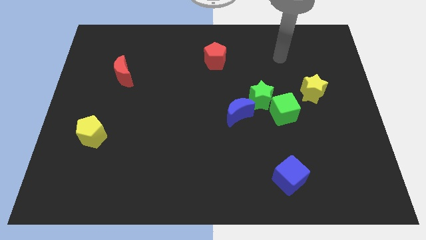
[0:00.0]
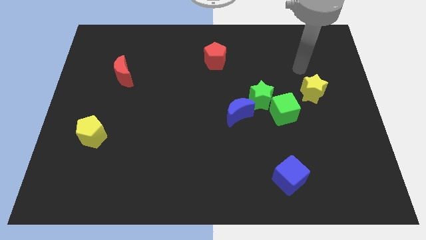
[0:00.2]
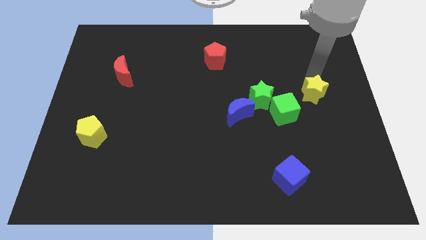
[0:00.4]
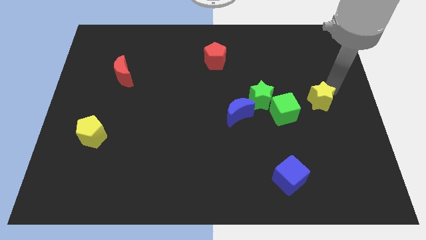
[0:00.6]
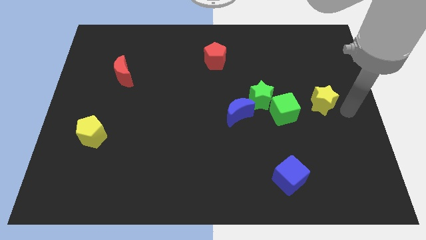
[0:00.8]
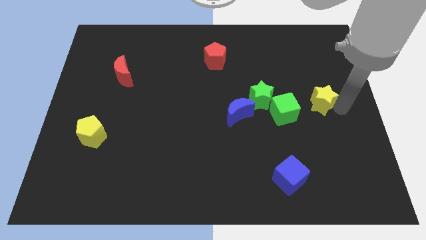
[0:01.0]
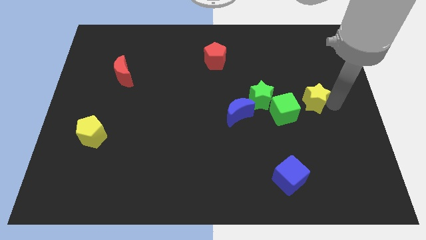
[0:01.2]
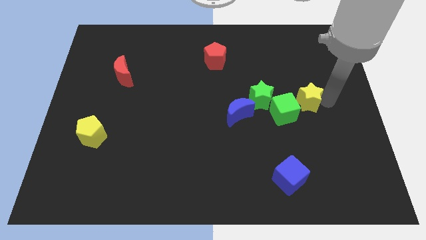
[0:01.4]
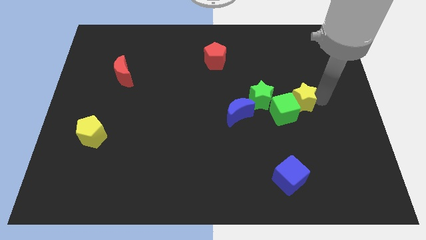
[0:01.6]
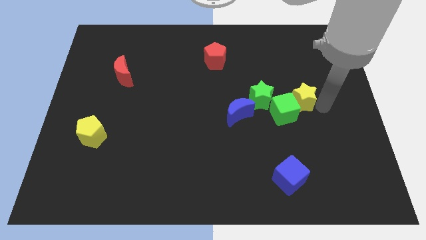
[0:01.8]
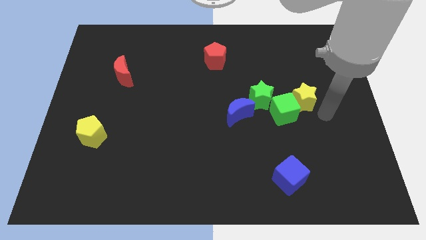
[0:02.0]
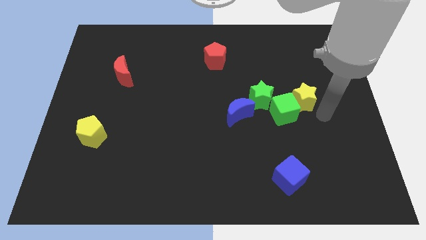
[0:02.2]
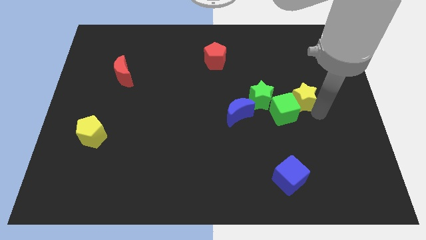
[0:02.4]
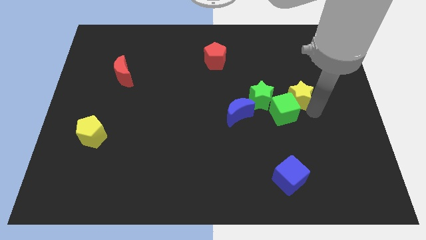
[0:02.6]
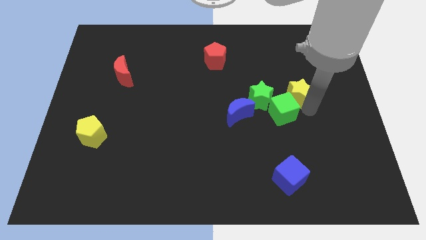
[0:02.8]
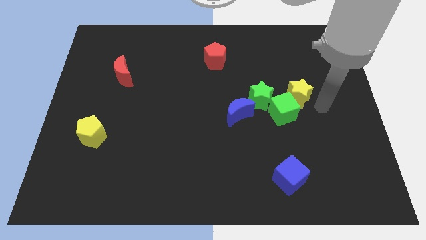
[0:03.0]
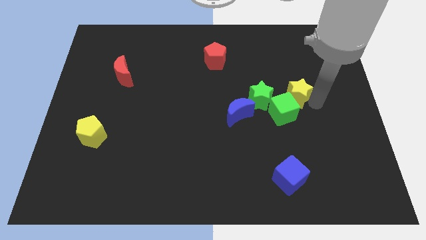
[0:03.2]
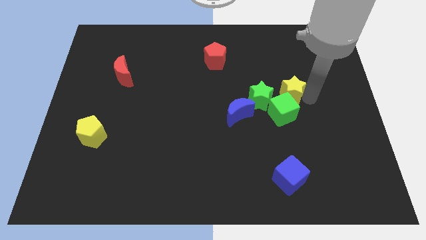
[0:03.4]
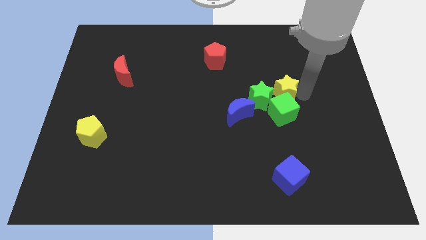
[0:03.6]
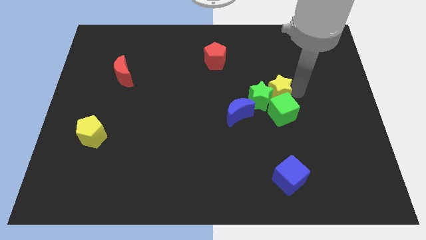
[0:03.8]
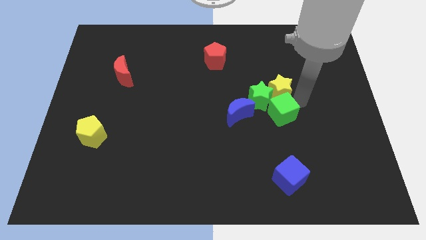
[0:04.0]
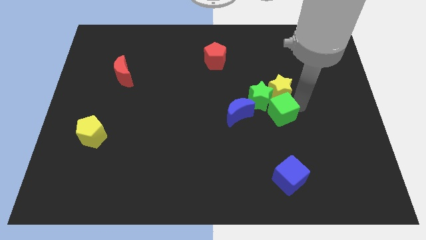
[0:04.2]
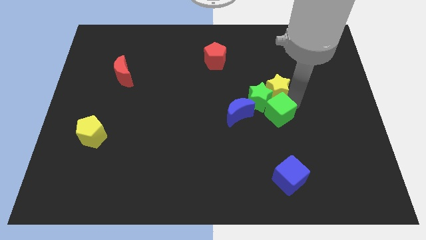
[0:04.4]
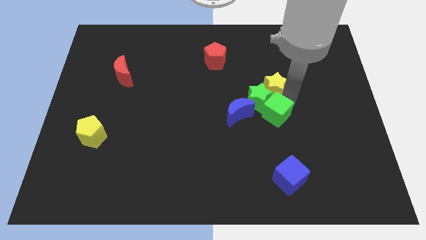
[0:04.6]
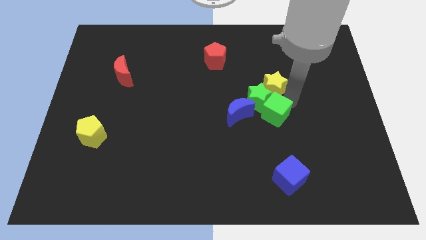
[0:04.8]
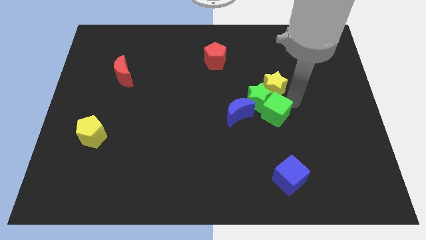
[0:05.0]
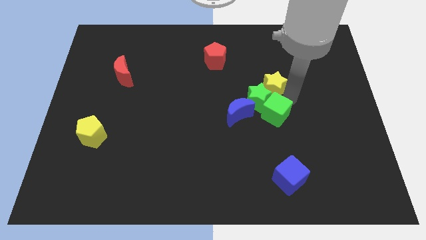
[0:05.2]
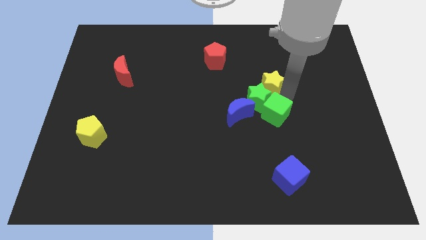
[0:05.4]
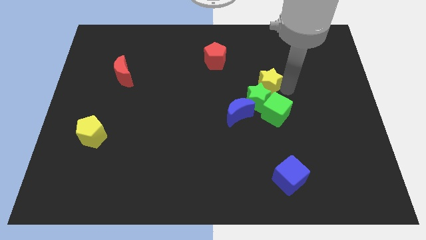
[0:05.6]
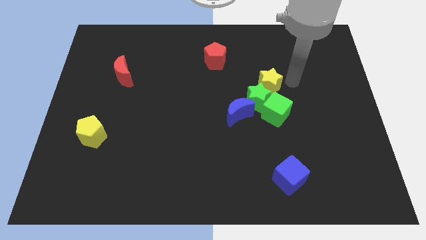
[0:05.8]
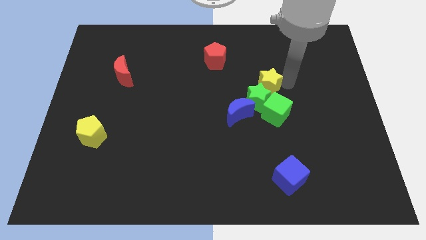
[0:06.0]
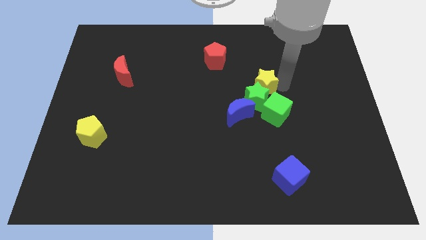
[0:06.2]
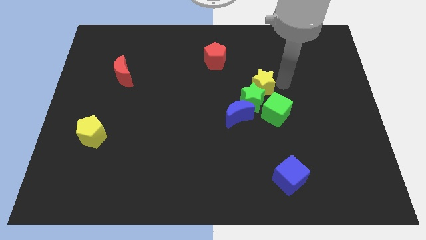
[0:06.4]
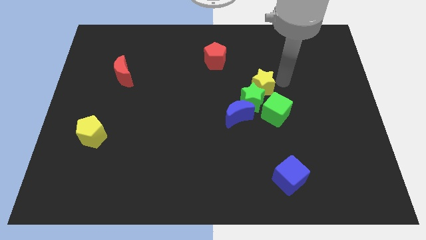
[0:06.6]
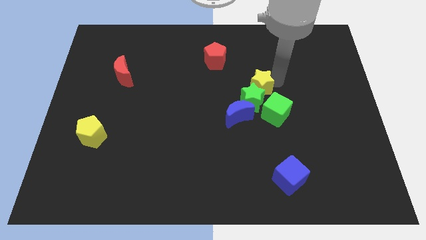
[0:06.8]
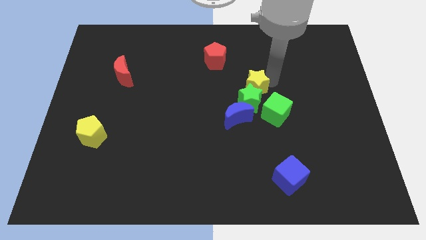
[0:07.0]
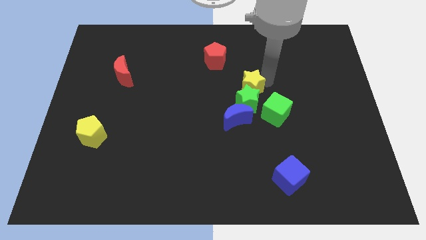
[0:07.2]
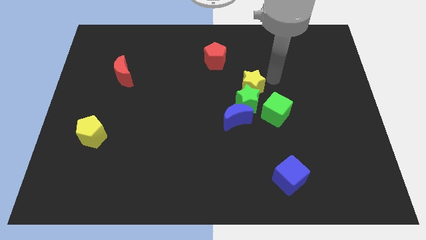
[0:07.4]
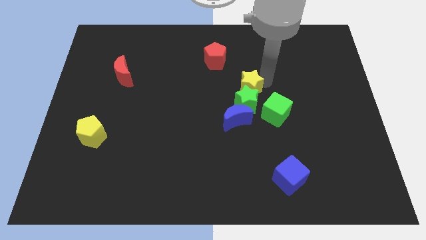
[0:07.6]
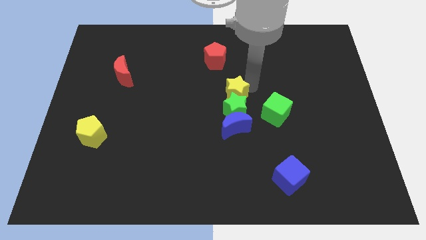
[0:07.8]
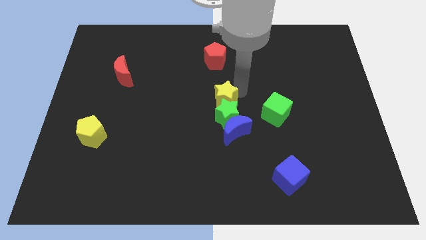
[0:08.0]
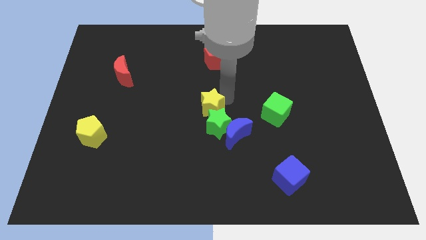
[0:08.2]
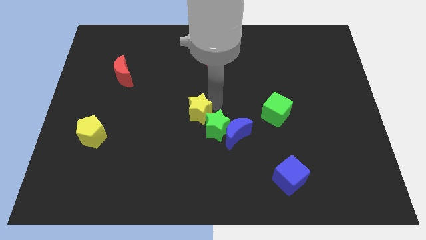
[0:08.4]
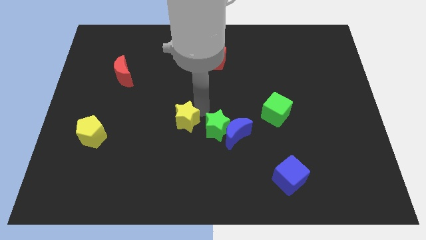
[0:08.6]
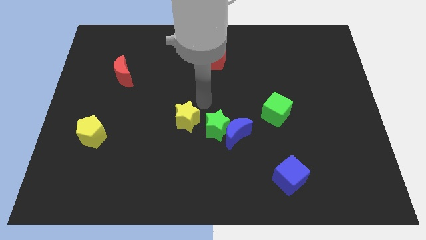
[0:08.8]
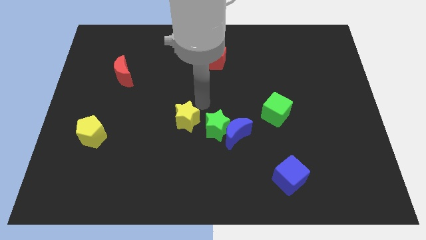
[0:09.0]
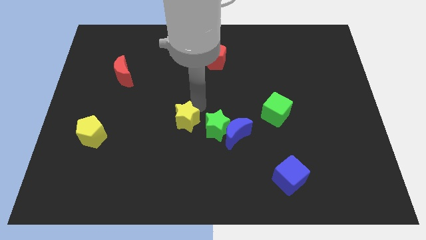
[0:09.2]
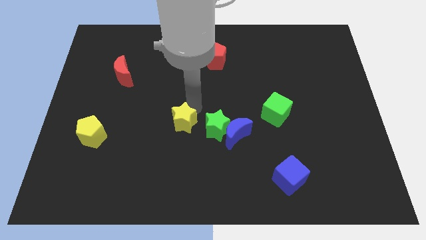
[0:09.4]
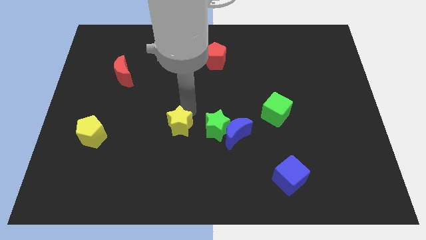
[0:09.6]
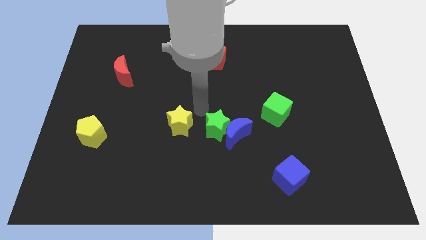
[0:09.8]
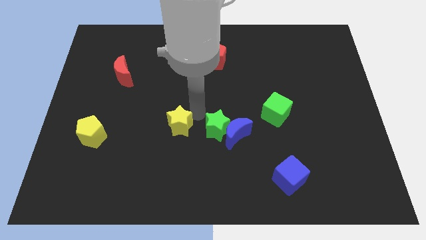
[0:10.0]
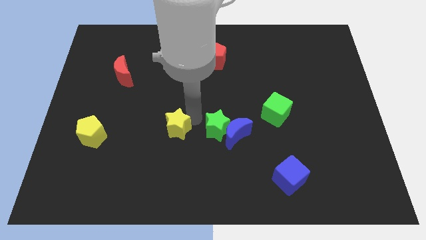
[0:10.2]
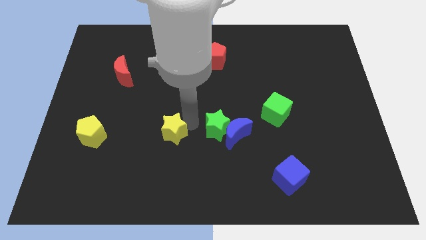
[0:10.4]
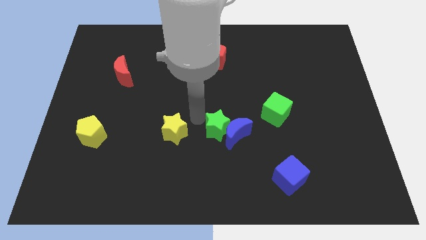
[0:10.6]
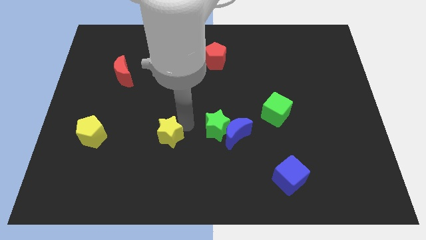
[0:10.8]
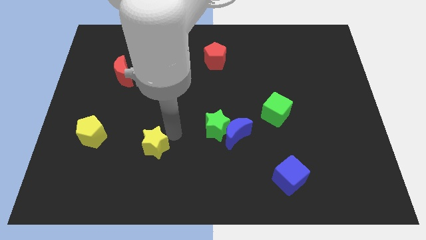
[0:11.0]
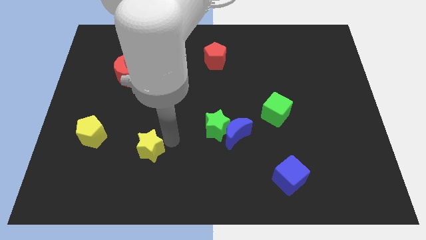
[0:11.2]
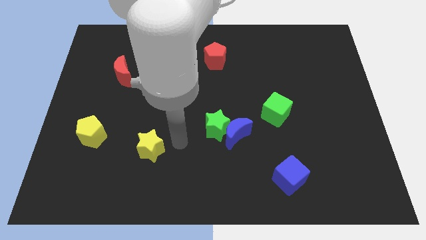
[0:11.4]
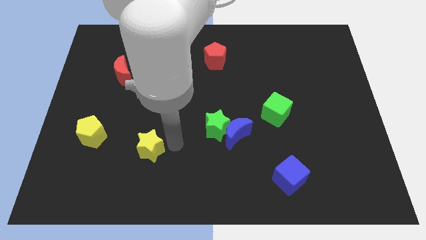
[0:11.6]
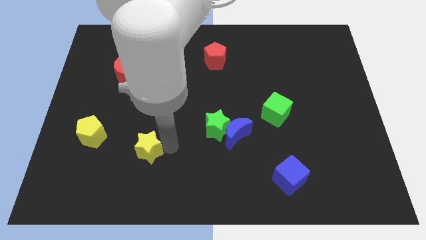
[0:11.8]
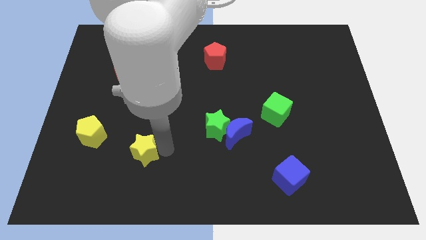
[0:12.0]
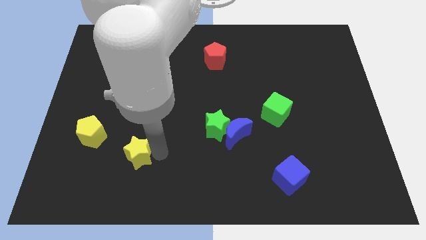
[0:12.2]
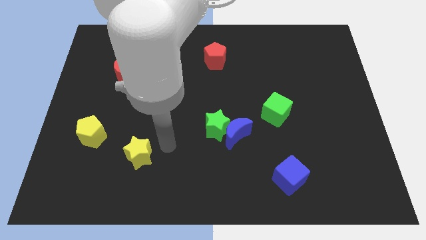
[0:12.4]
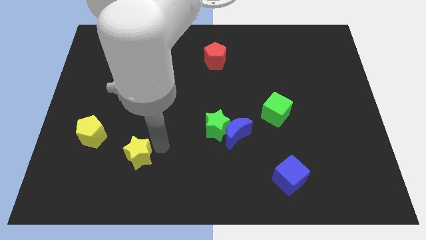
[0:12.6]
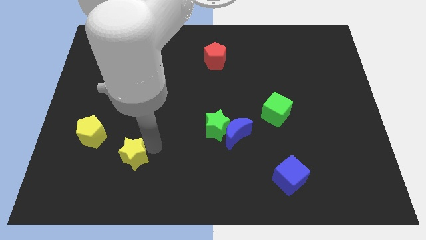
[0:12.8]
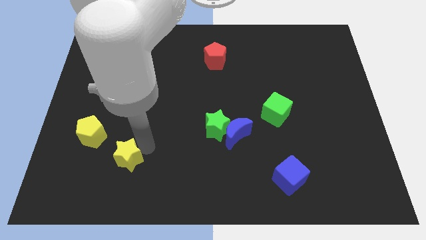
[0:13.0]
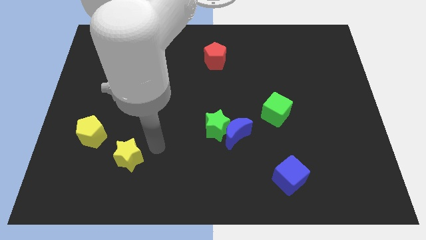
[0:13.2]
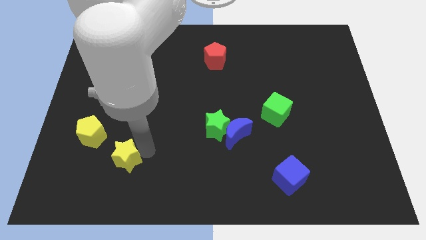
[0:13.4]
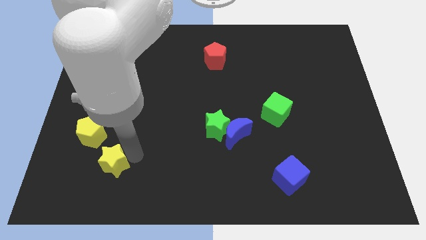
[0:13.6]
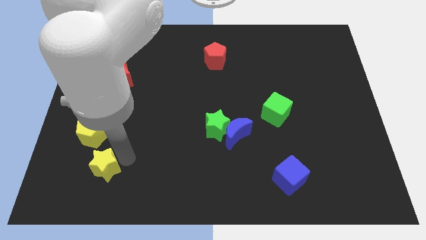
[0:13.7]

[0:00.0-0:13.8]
push the yellow star to the bottom of the yellow pentagon

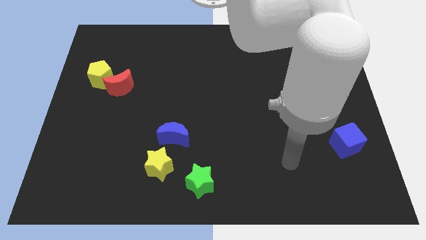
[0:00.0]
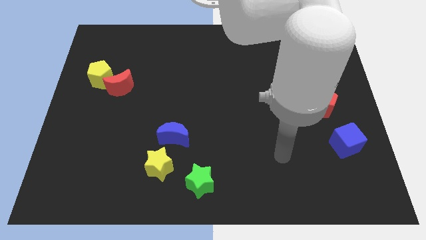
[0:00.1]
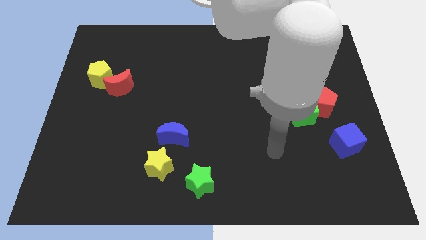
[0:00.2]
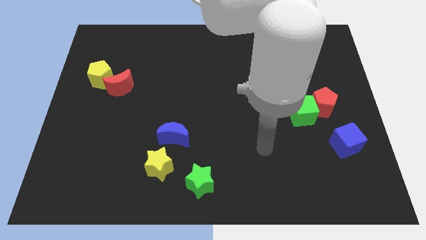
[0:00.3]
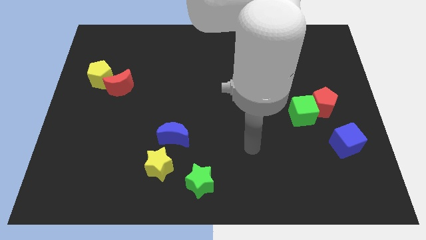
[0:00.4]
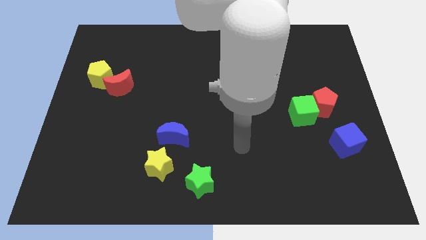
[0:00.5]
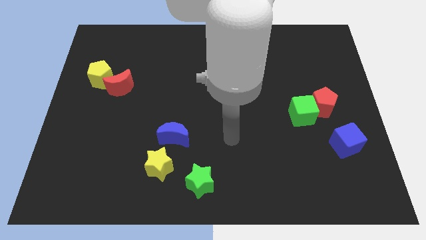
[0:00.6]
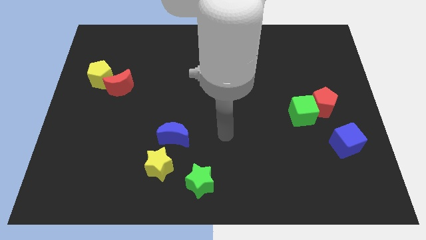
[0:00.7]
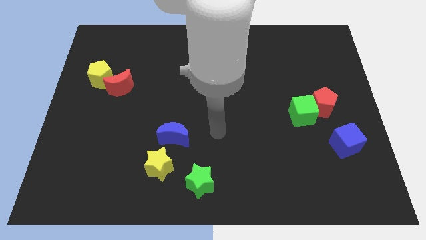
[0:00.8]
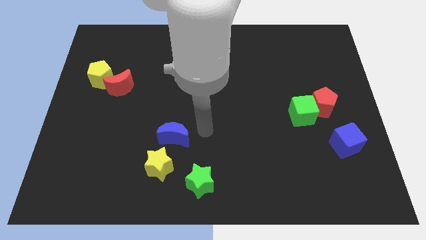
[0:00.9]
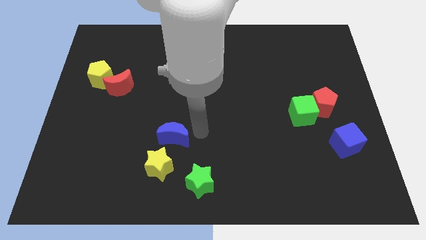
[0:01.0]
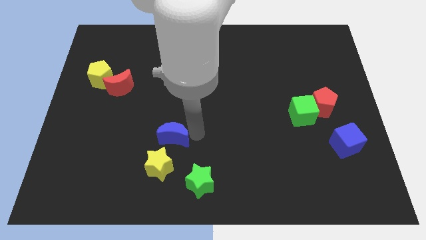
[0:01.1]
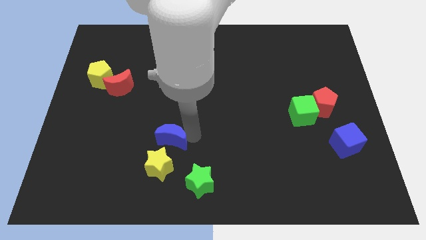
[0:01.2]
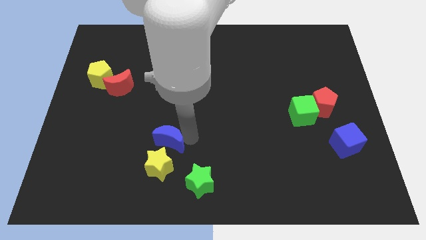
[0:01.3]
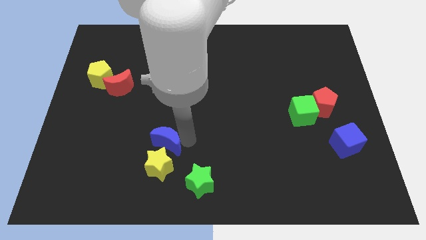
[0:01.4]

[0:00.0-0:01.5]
move the blue moon to the top left of the yellow star
